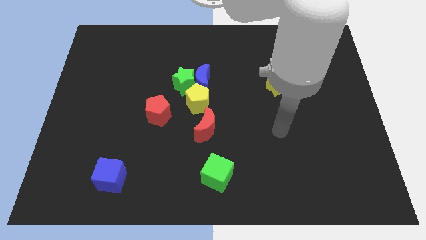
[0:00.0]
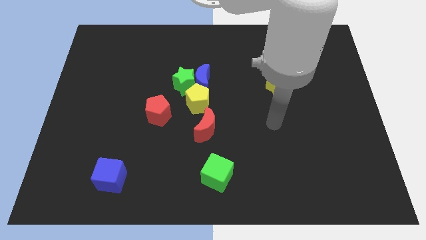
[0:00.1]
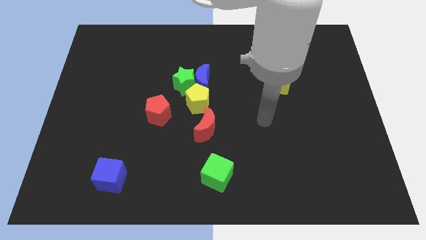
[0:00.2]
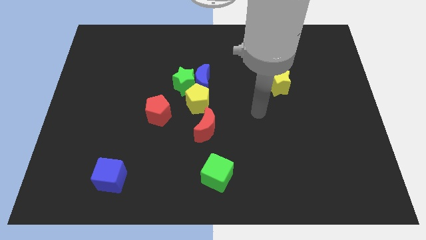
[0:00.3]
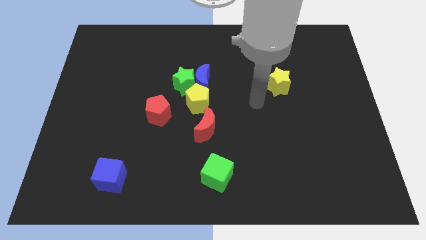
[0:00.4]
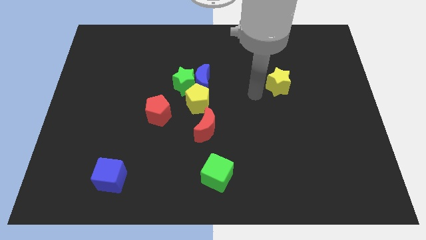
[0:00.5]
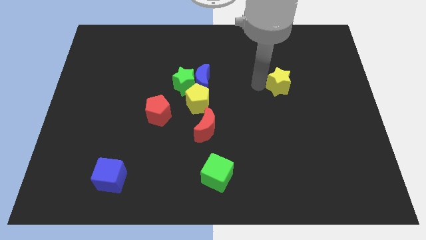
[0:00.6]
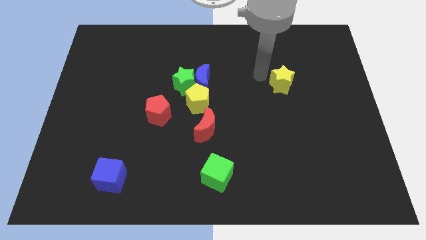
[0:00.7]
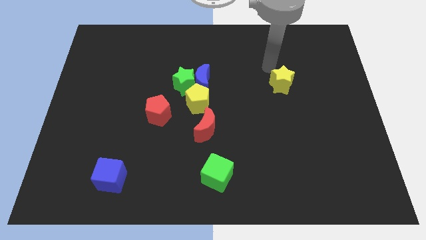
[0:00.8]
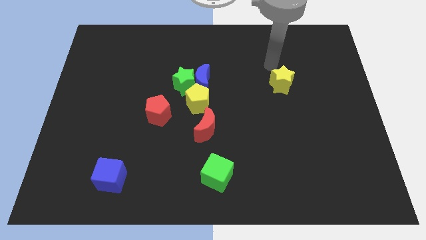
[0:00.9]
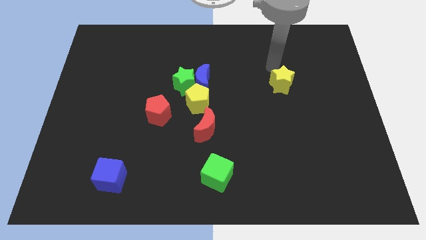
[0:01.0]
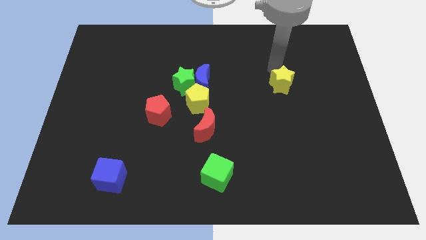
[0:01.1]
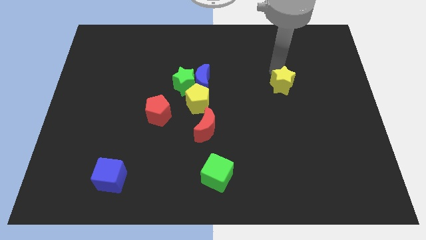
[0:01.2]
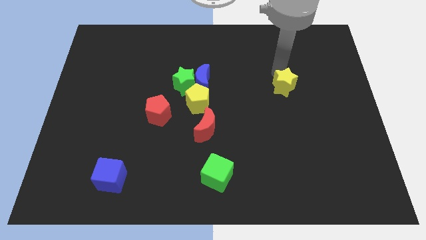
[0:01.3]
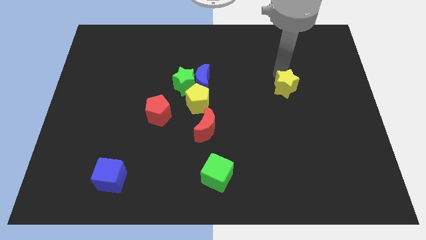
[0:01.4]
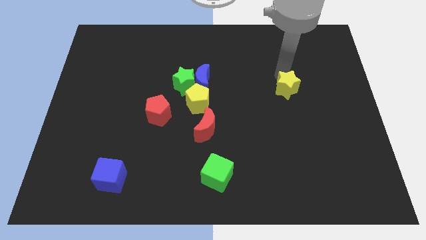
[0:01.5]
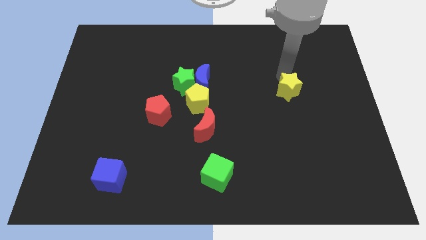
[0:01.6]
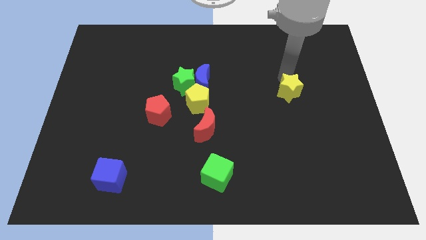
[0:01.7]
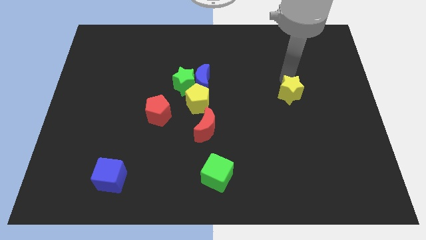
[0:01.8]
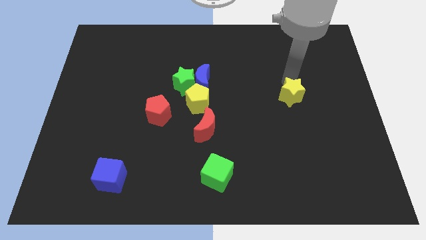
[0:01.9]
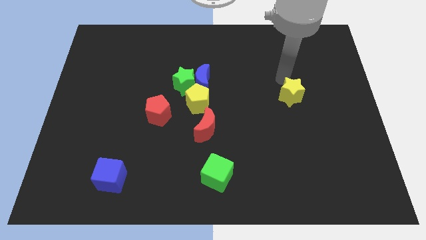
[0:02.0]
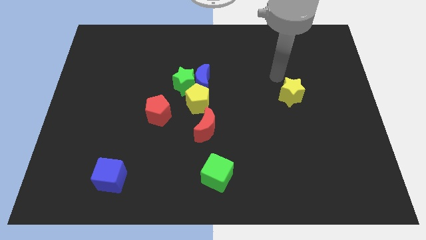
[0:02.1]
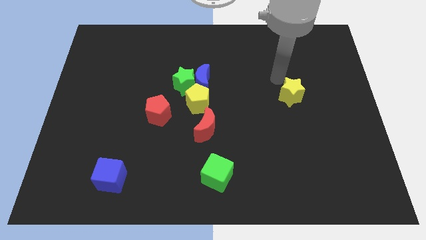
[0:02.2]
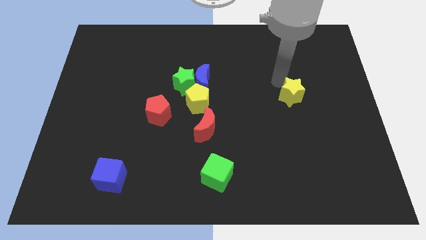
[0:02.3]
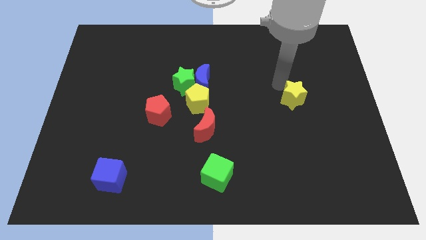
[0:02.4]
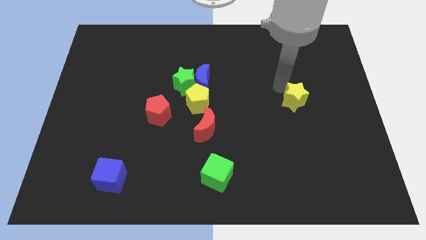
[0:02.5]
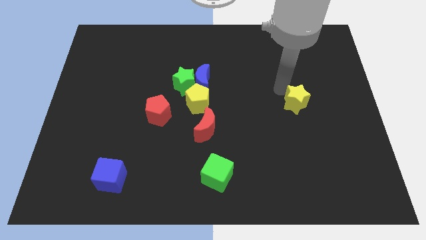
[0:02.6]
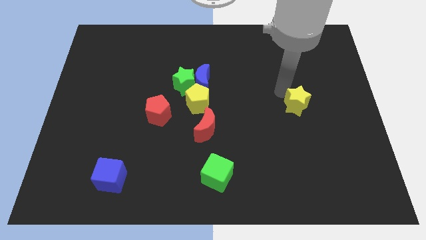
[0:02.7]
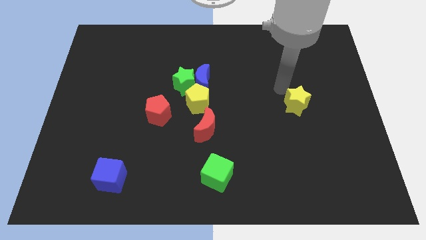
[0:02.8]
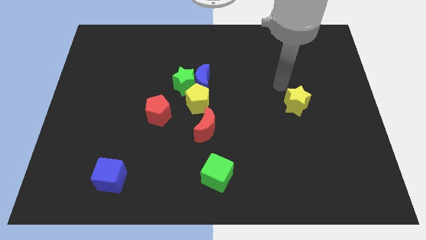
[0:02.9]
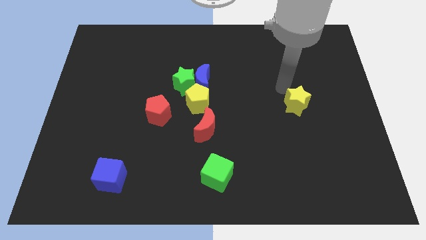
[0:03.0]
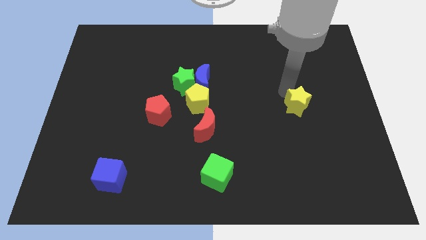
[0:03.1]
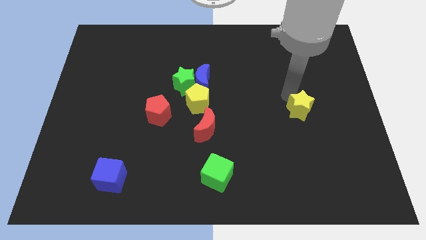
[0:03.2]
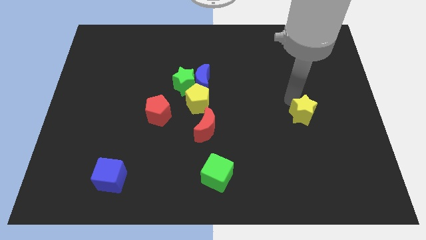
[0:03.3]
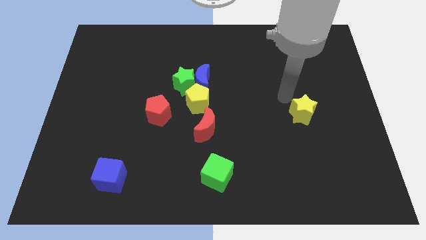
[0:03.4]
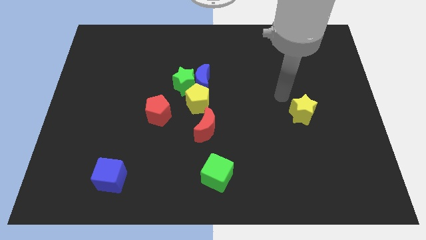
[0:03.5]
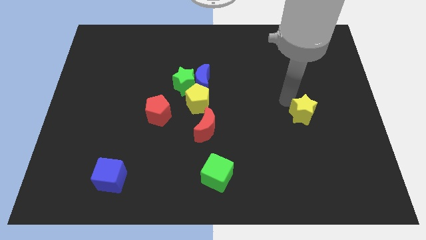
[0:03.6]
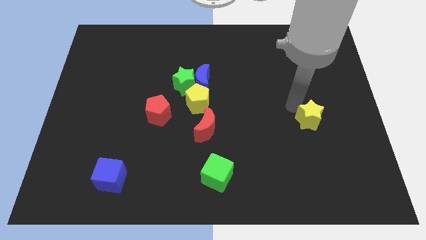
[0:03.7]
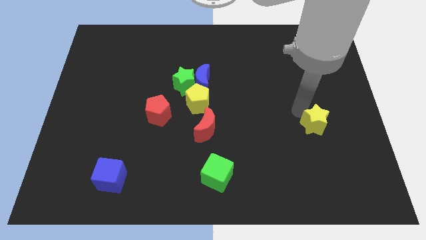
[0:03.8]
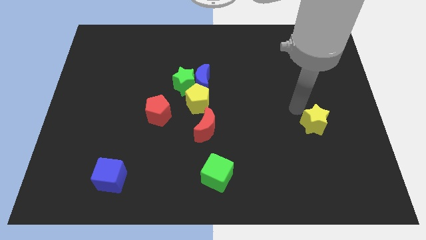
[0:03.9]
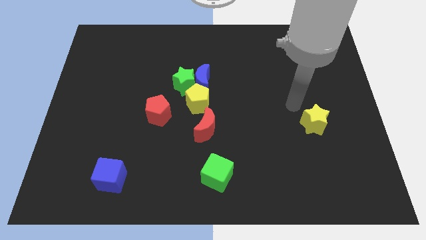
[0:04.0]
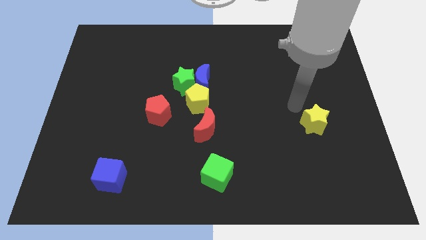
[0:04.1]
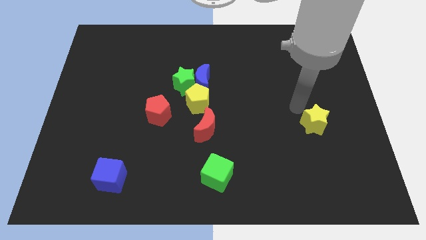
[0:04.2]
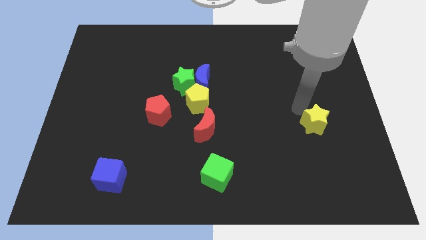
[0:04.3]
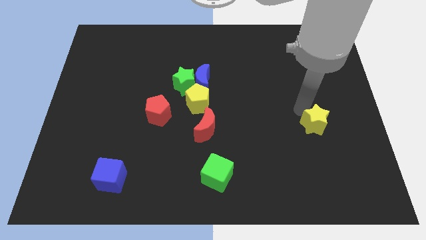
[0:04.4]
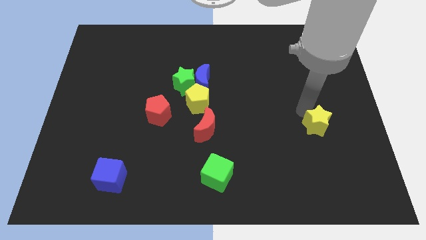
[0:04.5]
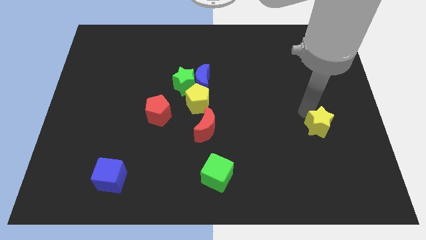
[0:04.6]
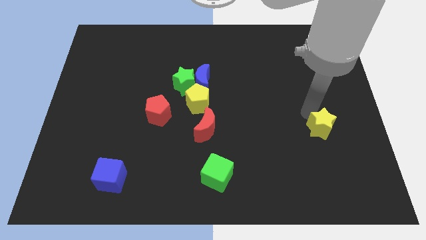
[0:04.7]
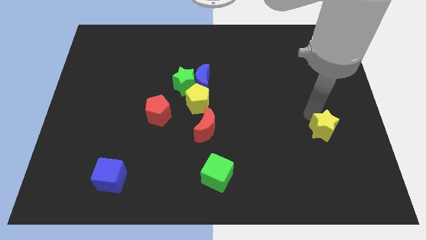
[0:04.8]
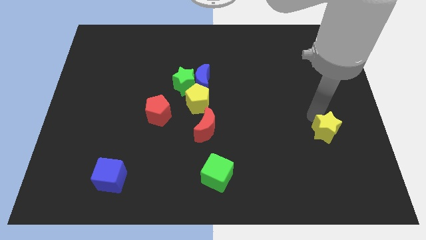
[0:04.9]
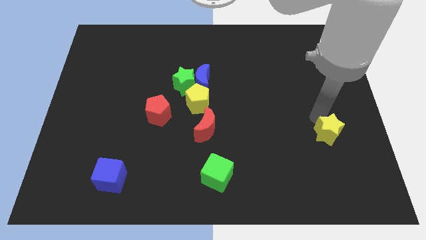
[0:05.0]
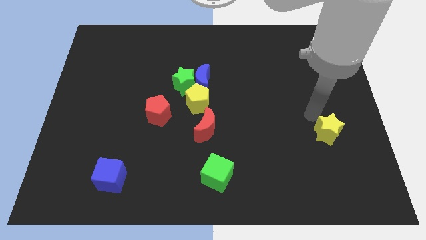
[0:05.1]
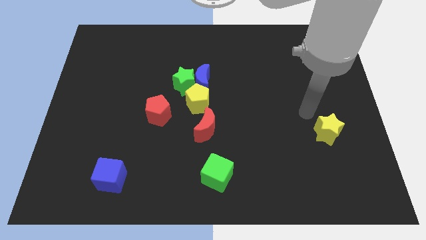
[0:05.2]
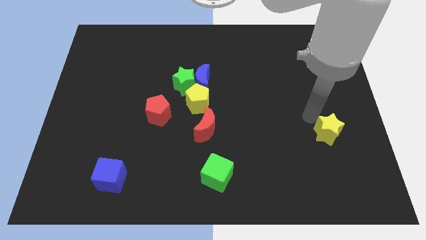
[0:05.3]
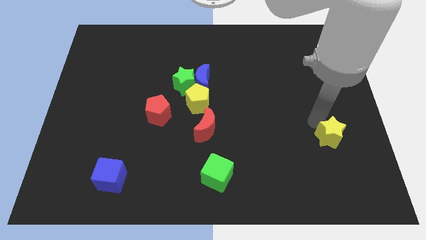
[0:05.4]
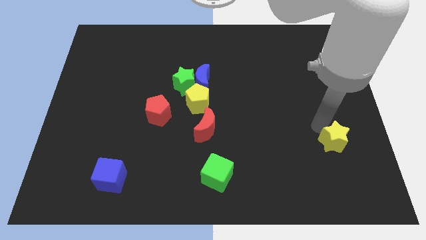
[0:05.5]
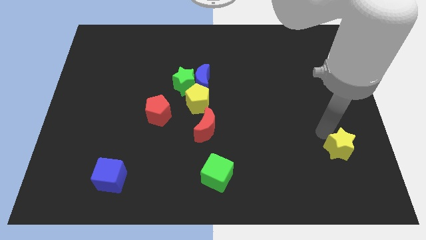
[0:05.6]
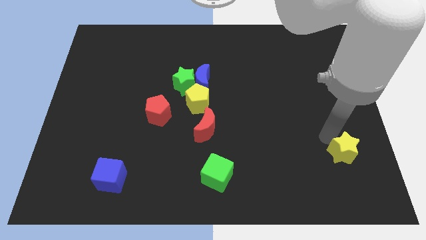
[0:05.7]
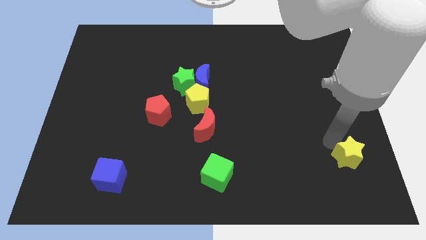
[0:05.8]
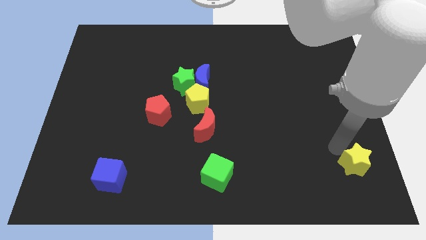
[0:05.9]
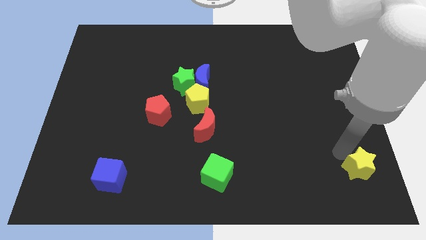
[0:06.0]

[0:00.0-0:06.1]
put the yellow star to the bottom right
